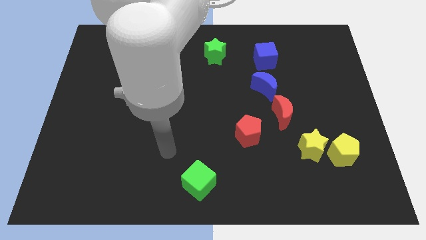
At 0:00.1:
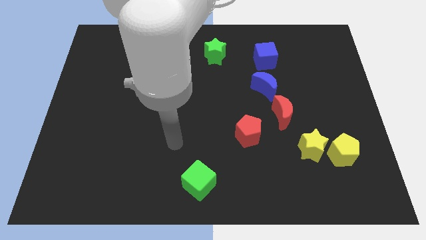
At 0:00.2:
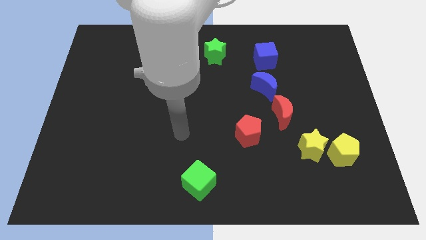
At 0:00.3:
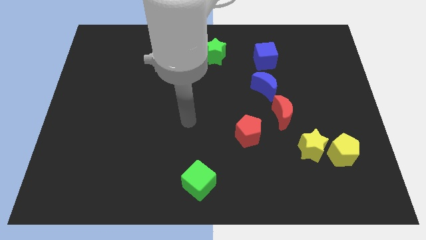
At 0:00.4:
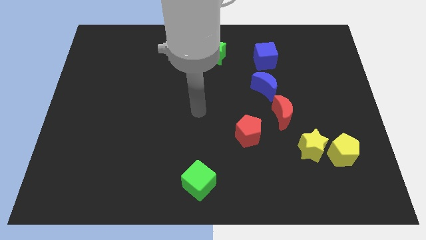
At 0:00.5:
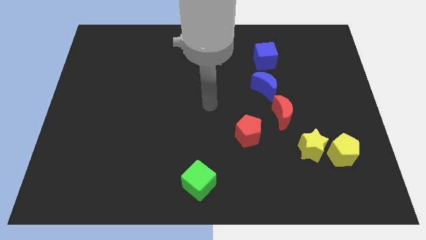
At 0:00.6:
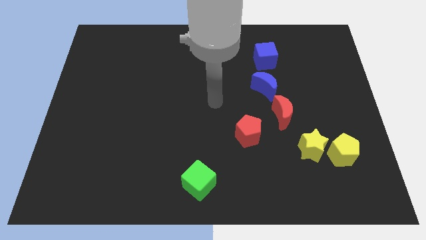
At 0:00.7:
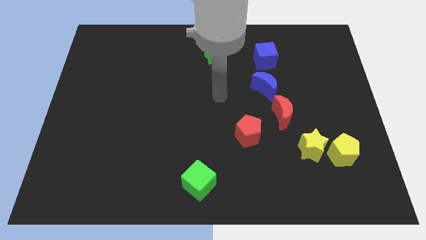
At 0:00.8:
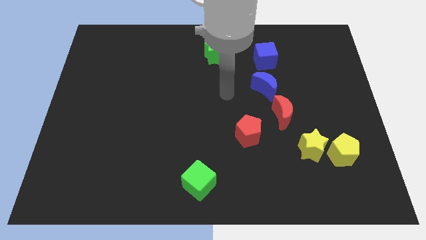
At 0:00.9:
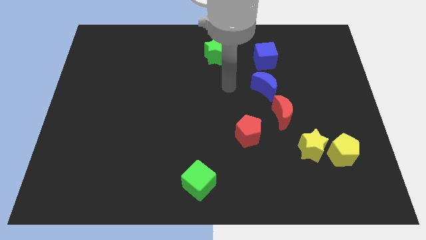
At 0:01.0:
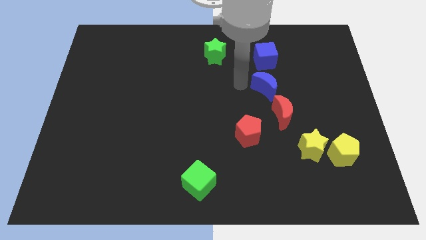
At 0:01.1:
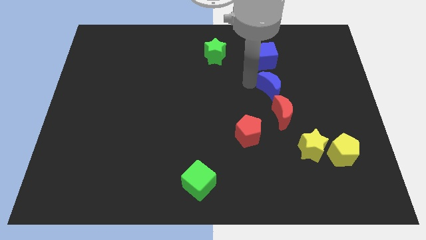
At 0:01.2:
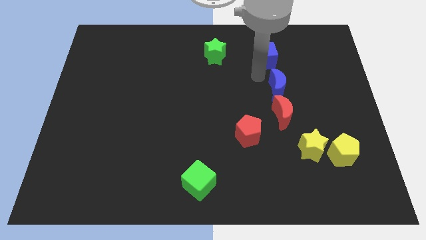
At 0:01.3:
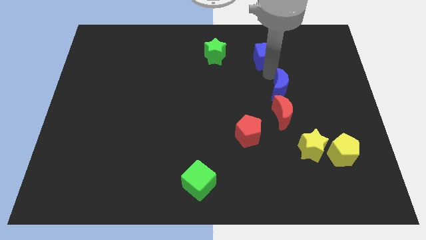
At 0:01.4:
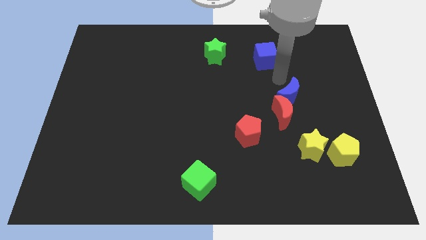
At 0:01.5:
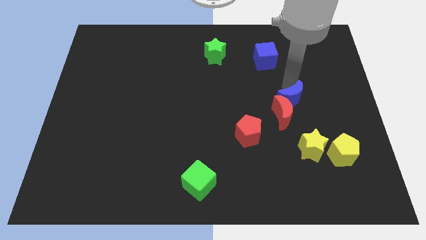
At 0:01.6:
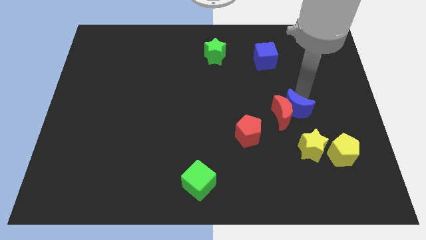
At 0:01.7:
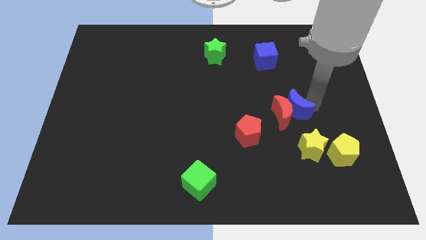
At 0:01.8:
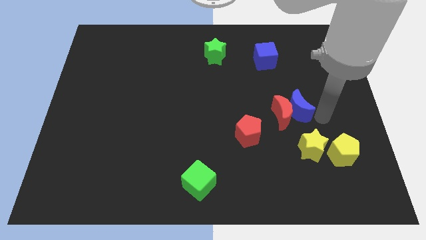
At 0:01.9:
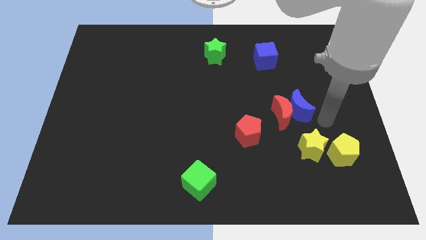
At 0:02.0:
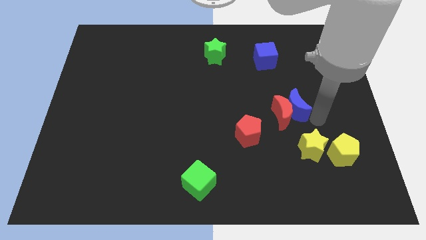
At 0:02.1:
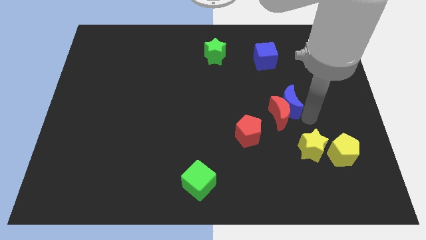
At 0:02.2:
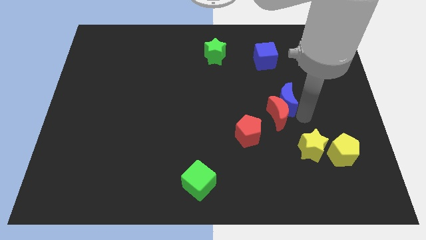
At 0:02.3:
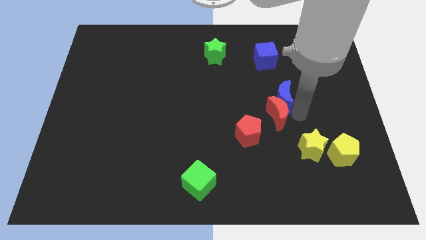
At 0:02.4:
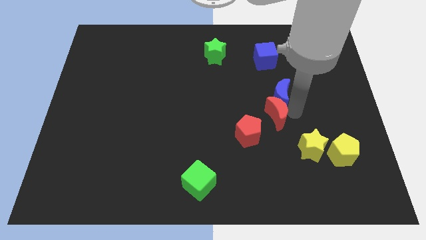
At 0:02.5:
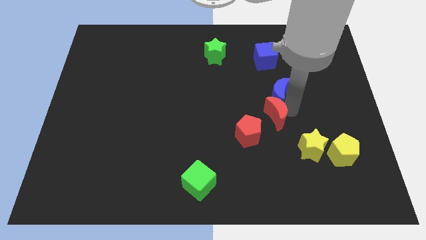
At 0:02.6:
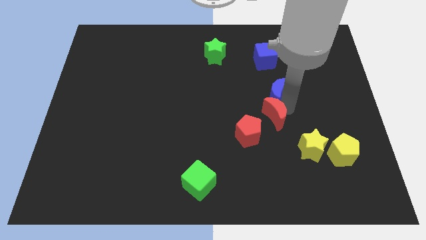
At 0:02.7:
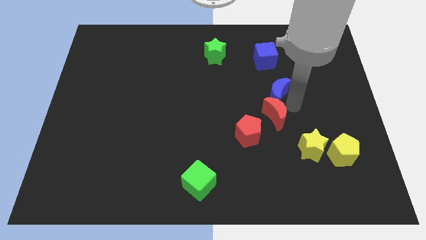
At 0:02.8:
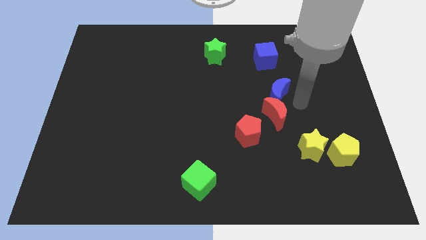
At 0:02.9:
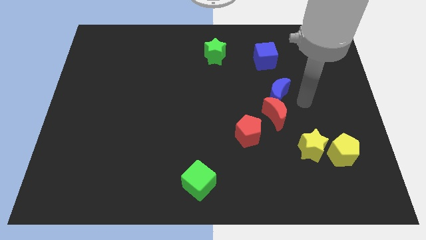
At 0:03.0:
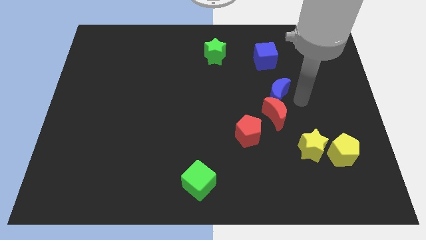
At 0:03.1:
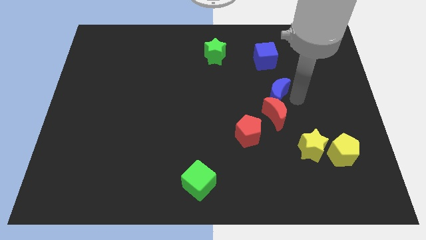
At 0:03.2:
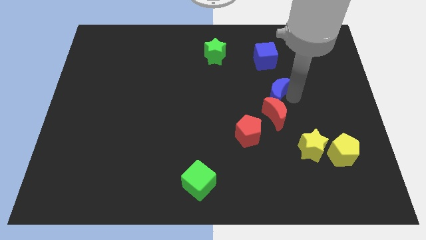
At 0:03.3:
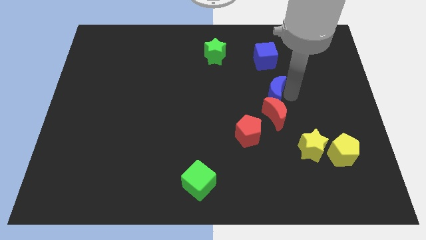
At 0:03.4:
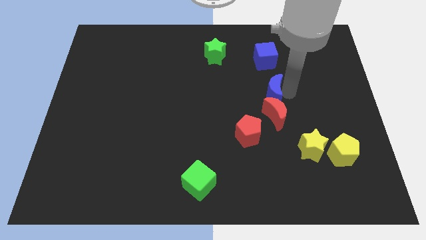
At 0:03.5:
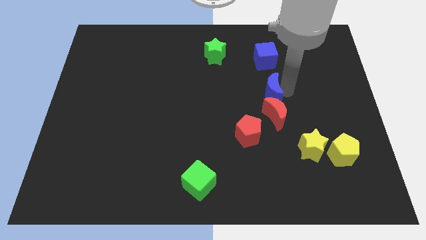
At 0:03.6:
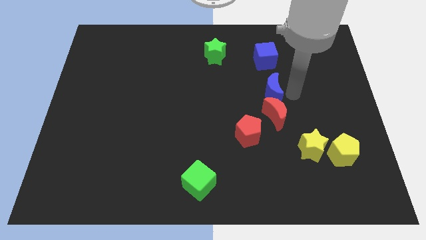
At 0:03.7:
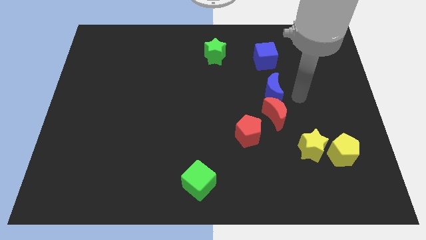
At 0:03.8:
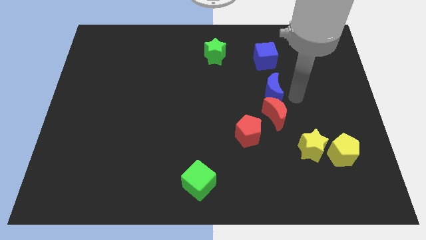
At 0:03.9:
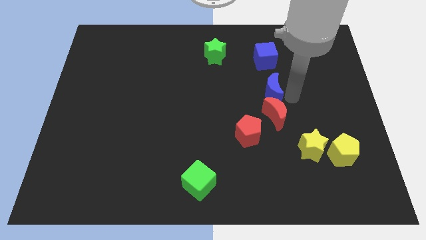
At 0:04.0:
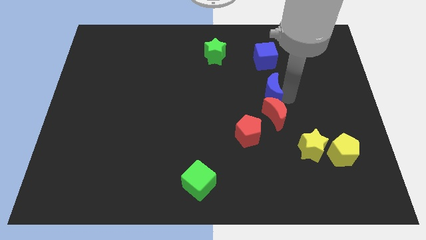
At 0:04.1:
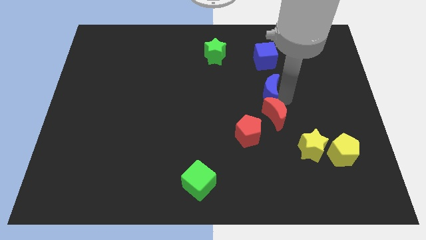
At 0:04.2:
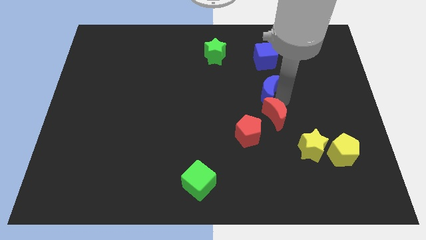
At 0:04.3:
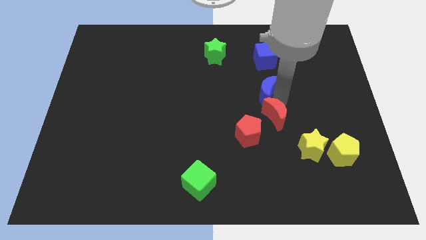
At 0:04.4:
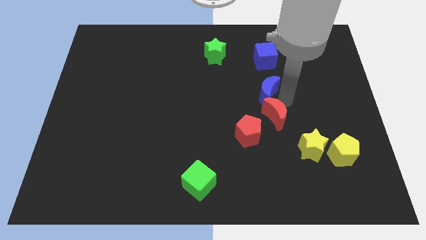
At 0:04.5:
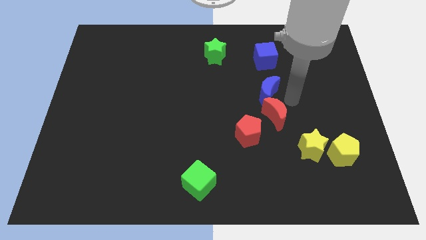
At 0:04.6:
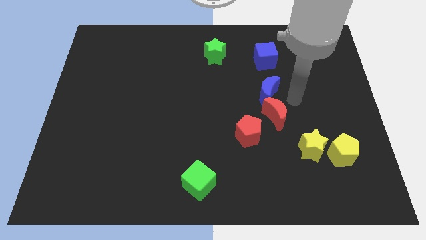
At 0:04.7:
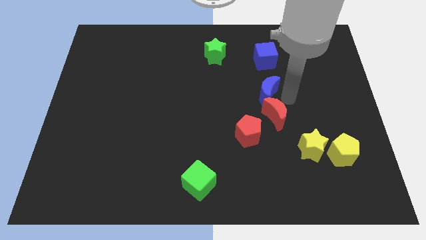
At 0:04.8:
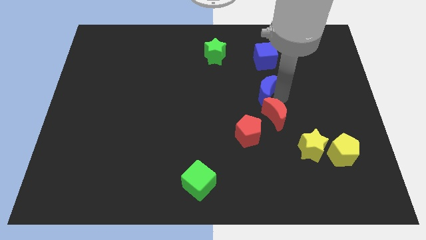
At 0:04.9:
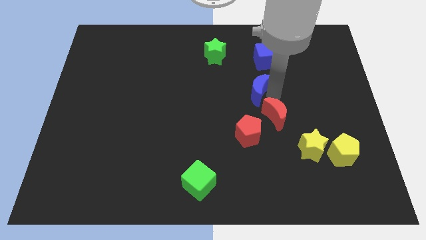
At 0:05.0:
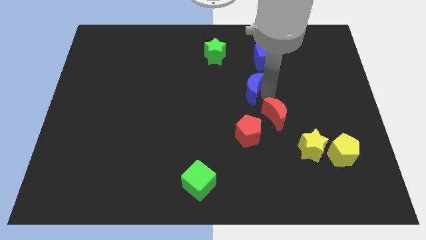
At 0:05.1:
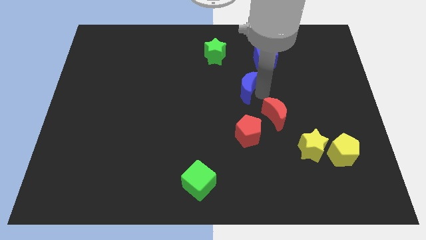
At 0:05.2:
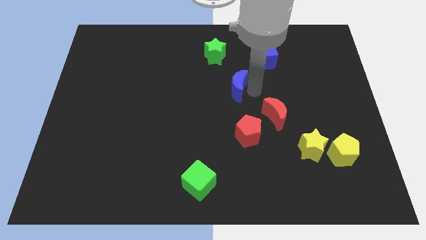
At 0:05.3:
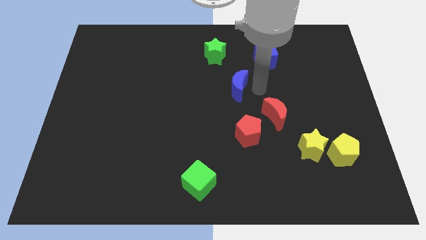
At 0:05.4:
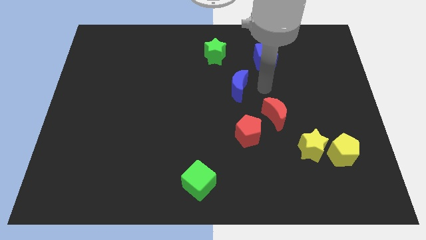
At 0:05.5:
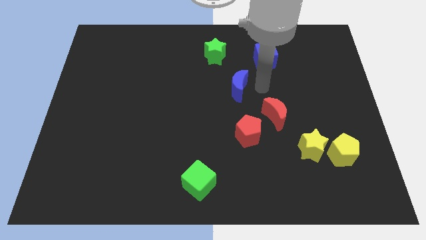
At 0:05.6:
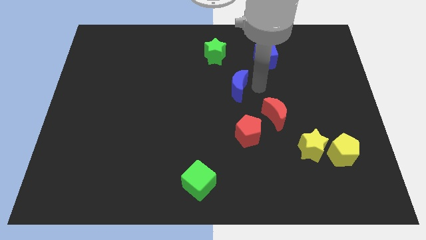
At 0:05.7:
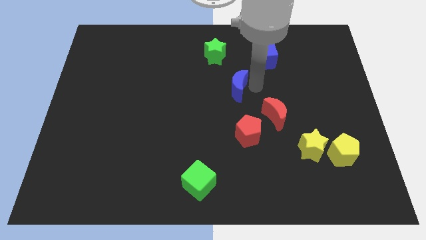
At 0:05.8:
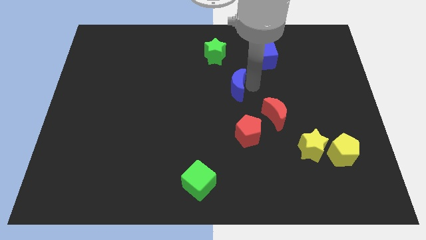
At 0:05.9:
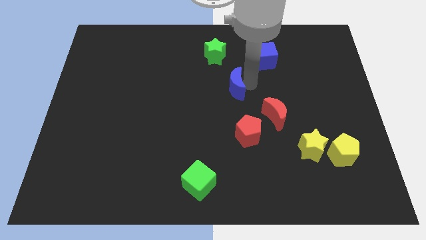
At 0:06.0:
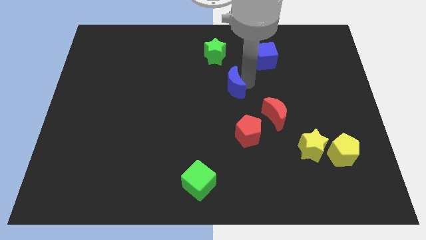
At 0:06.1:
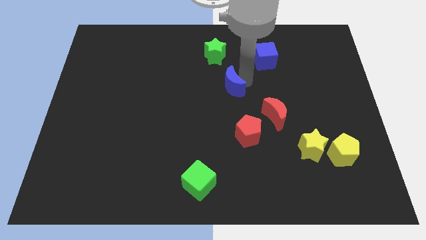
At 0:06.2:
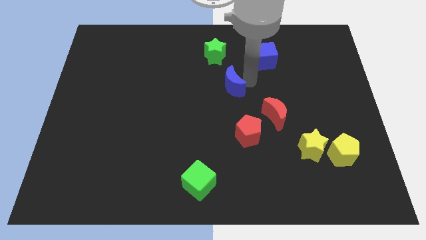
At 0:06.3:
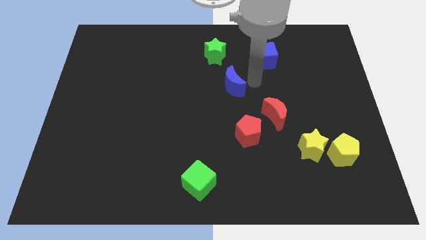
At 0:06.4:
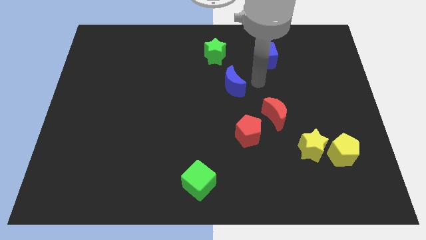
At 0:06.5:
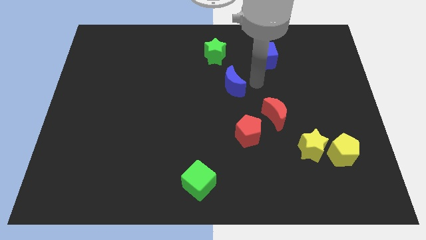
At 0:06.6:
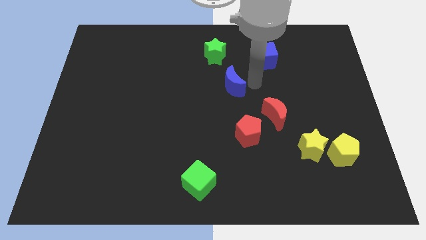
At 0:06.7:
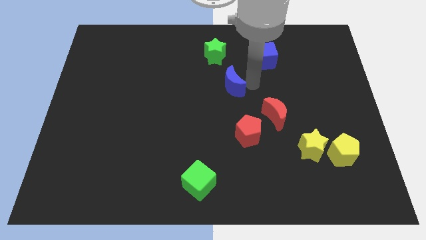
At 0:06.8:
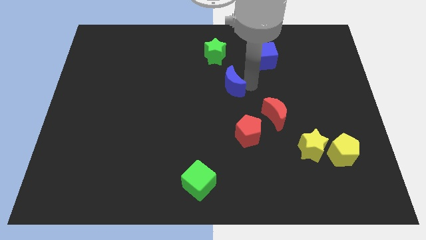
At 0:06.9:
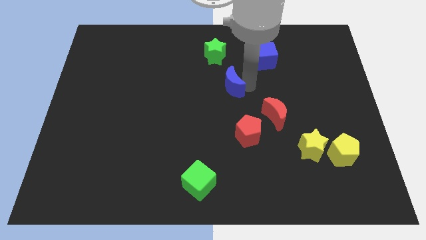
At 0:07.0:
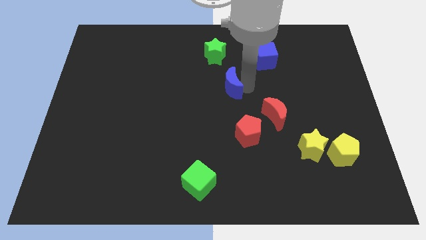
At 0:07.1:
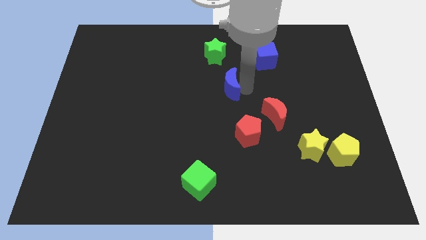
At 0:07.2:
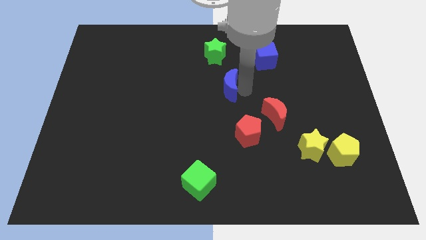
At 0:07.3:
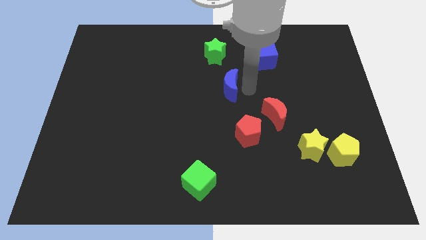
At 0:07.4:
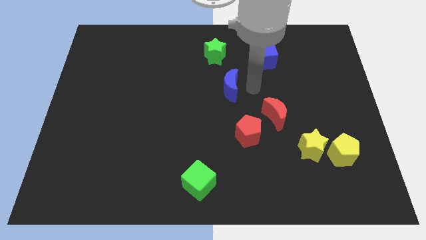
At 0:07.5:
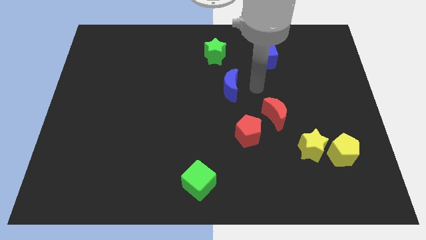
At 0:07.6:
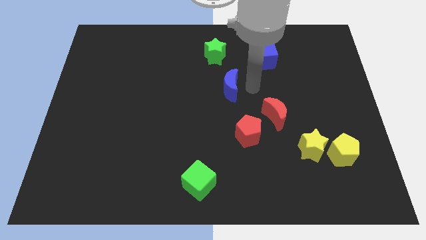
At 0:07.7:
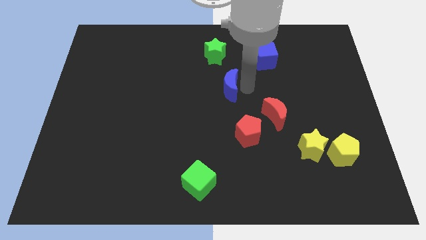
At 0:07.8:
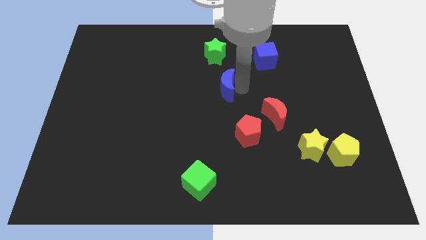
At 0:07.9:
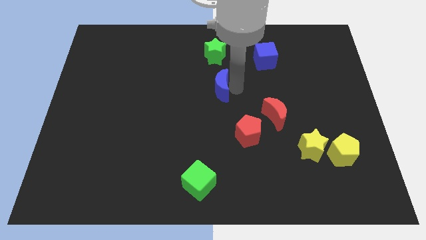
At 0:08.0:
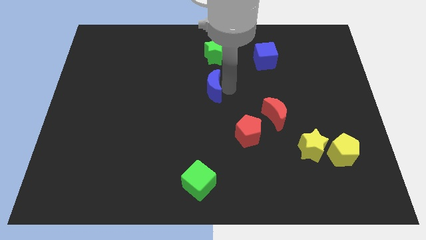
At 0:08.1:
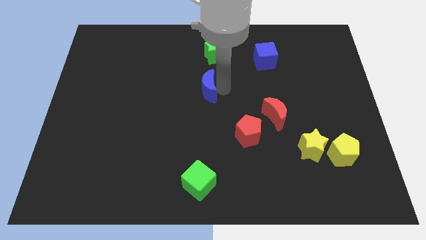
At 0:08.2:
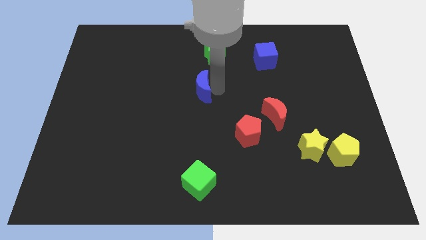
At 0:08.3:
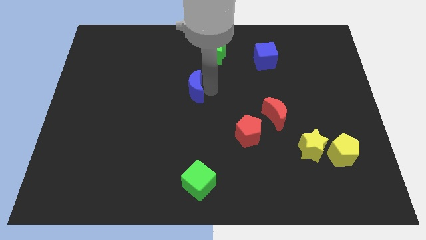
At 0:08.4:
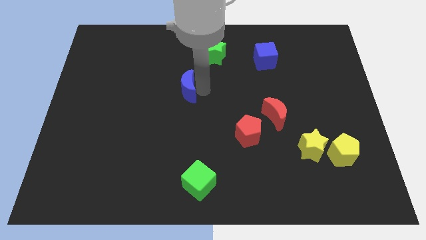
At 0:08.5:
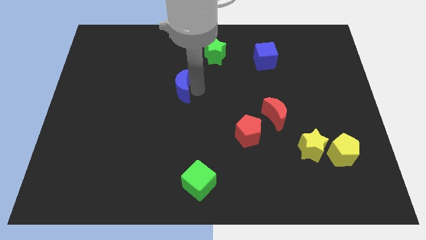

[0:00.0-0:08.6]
move the blue moon left
